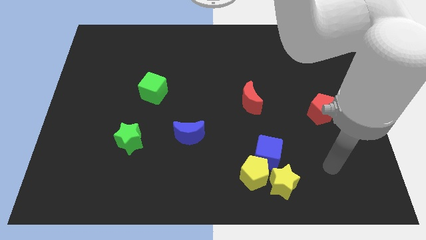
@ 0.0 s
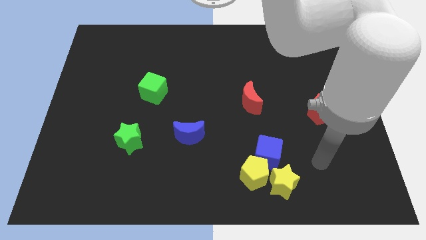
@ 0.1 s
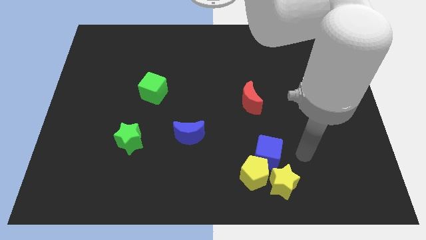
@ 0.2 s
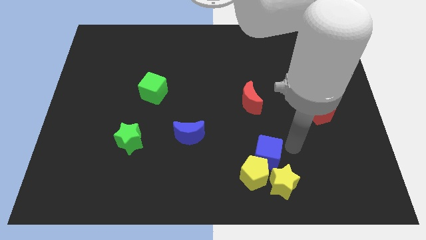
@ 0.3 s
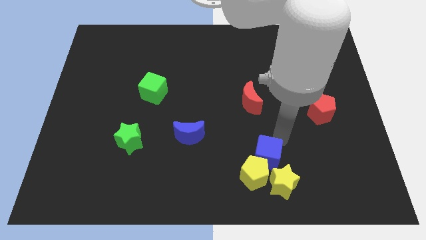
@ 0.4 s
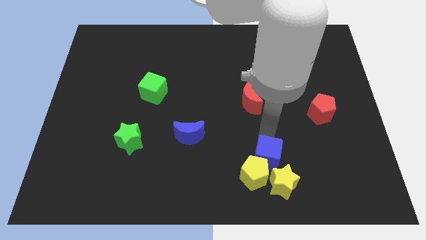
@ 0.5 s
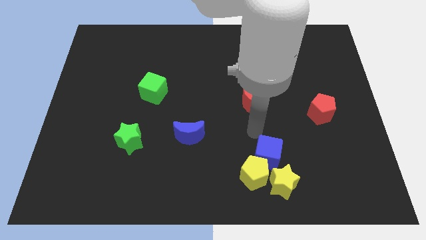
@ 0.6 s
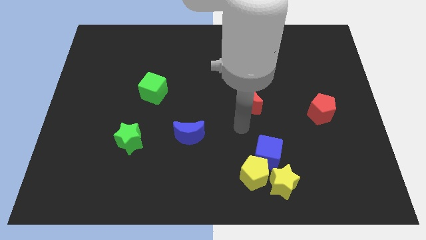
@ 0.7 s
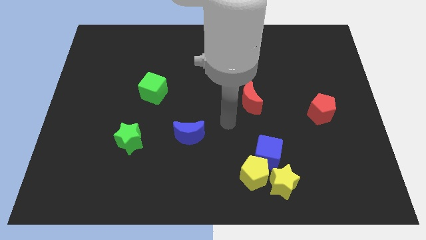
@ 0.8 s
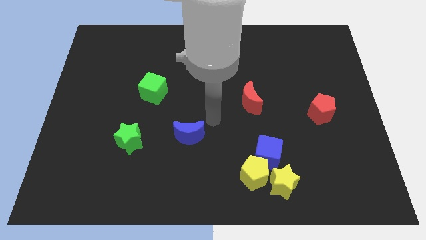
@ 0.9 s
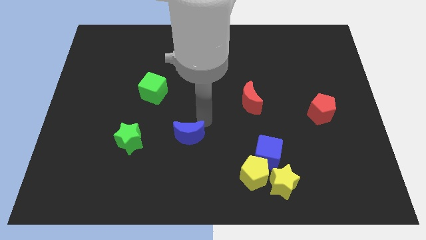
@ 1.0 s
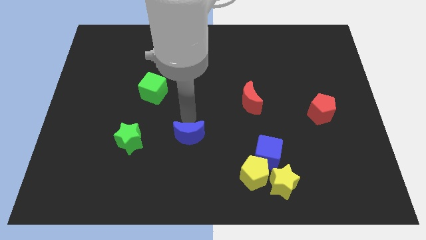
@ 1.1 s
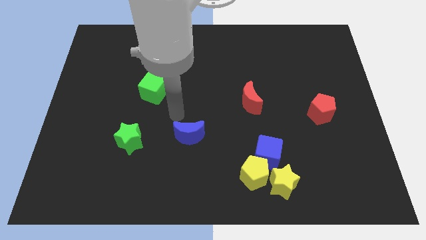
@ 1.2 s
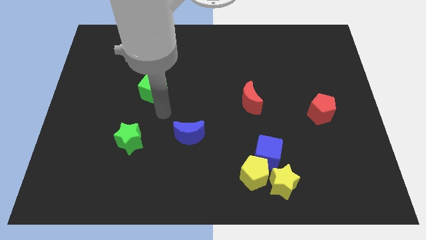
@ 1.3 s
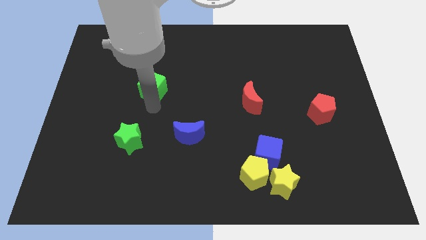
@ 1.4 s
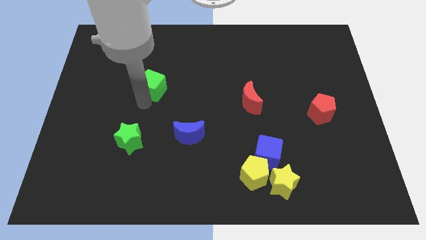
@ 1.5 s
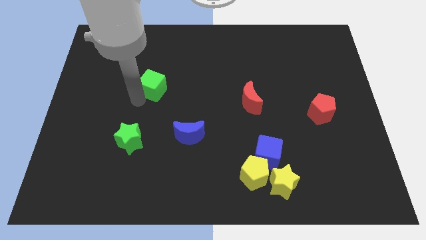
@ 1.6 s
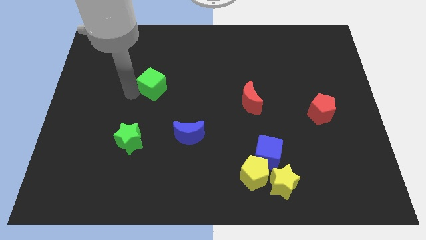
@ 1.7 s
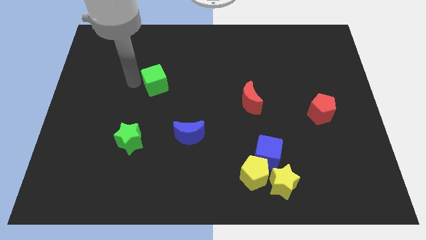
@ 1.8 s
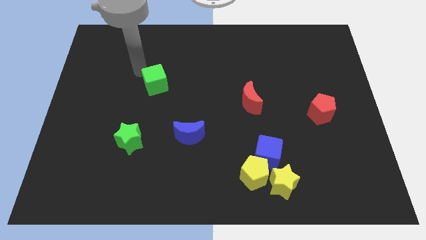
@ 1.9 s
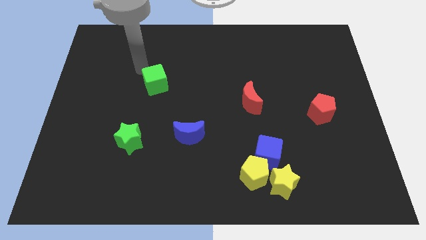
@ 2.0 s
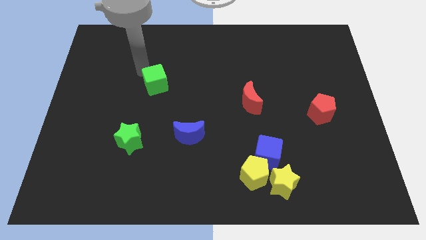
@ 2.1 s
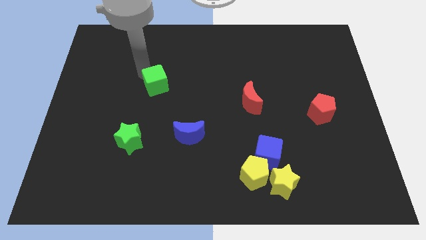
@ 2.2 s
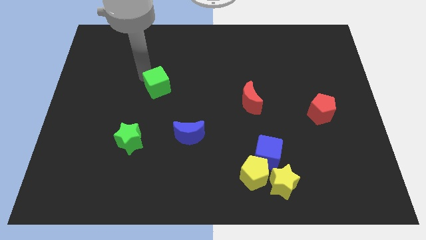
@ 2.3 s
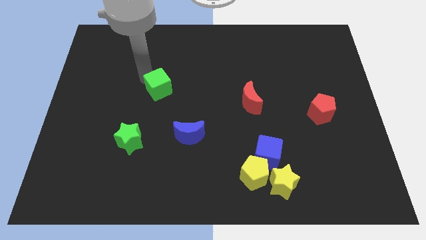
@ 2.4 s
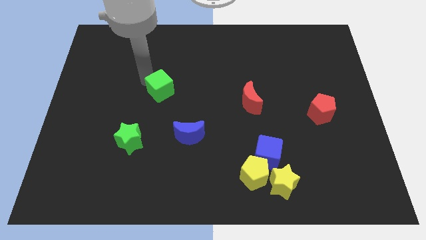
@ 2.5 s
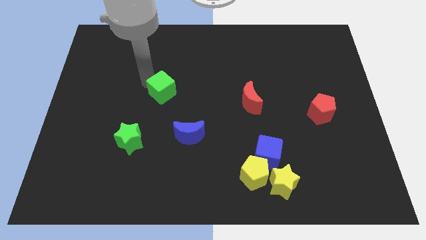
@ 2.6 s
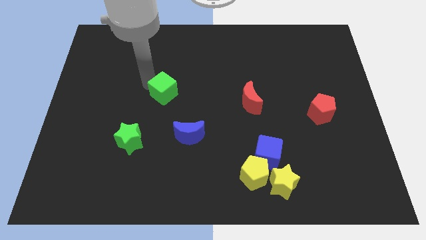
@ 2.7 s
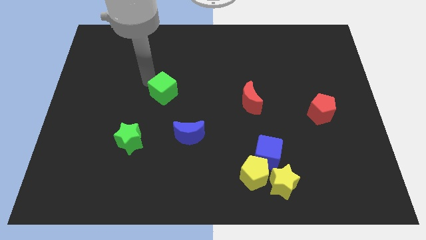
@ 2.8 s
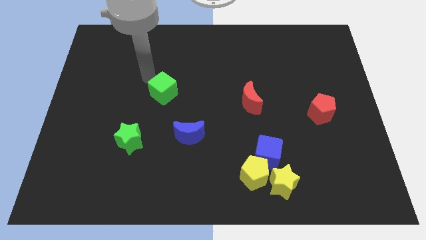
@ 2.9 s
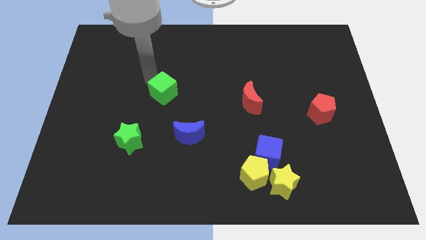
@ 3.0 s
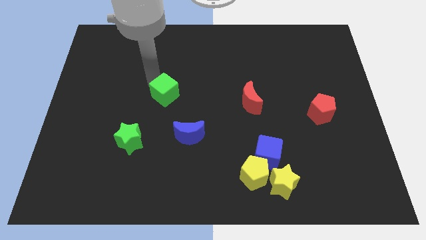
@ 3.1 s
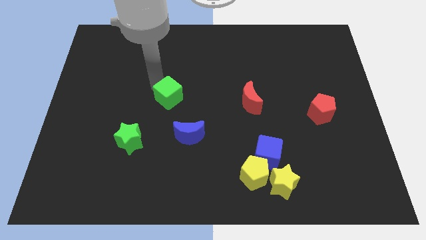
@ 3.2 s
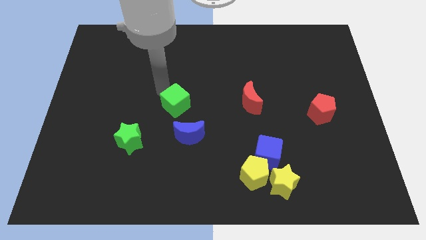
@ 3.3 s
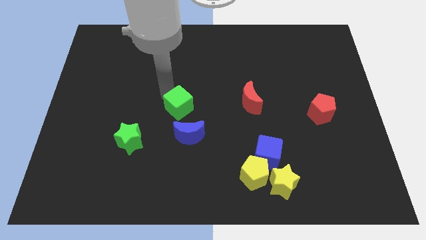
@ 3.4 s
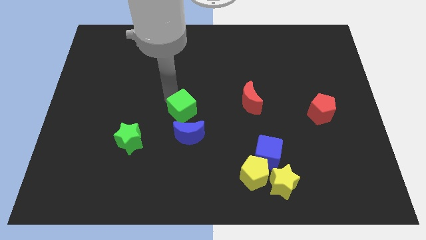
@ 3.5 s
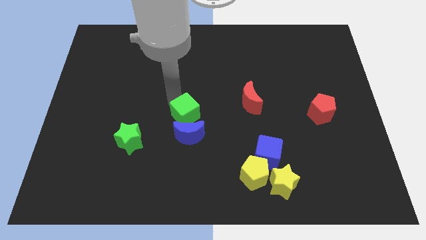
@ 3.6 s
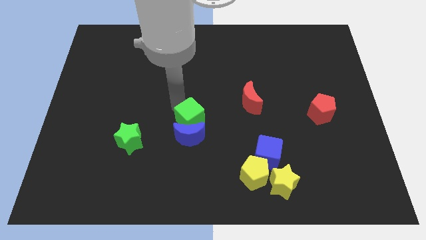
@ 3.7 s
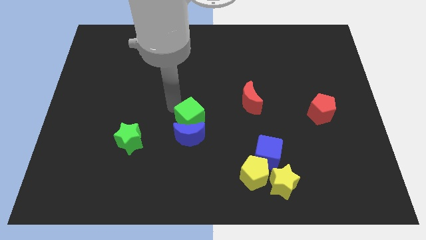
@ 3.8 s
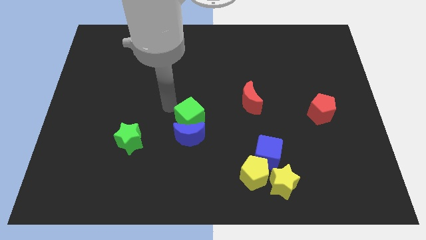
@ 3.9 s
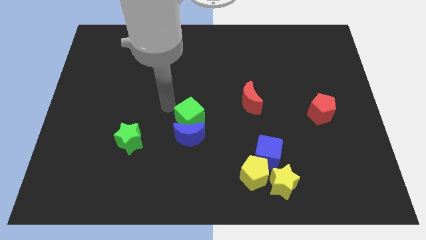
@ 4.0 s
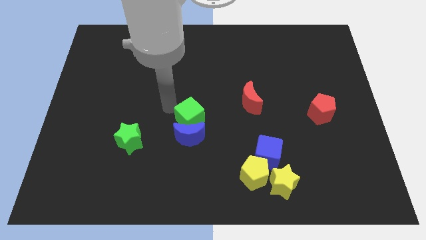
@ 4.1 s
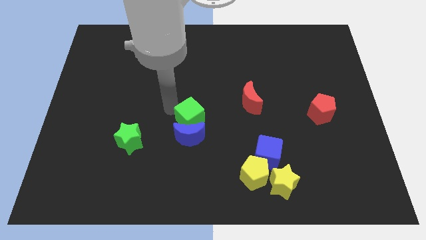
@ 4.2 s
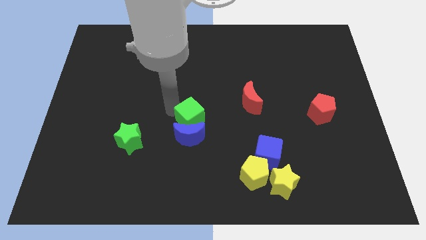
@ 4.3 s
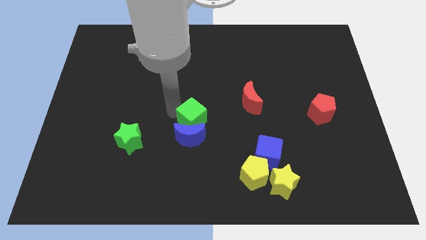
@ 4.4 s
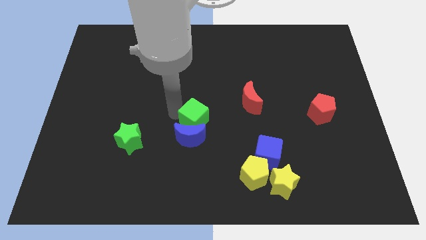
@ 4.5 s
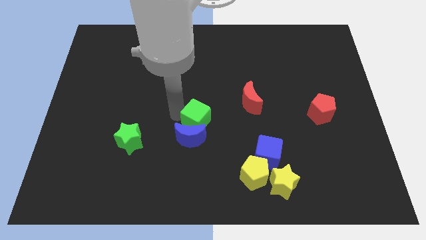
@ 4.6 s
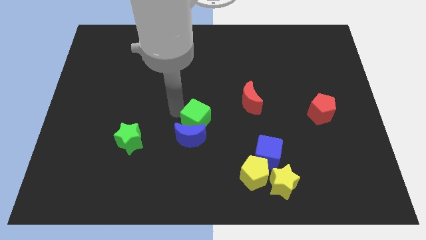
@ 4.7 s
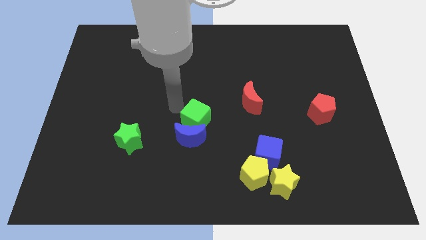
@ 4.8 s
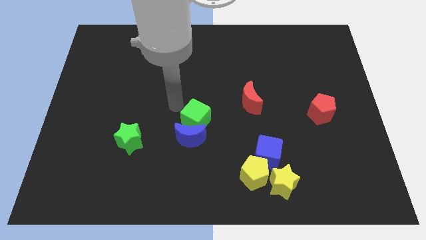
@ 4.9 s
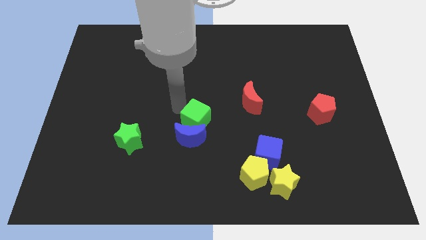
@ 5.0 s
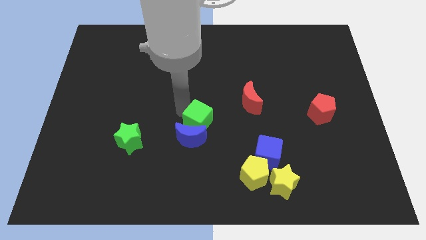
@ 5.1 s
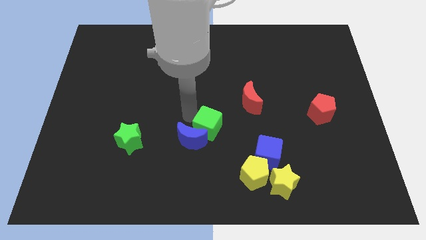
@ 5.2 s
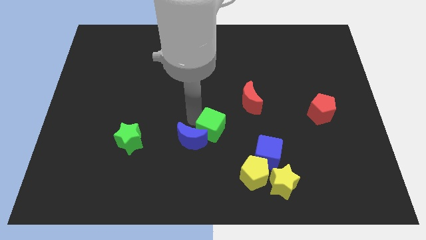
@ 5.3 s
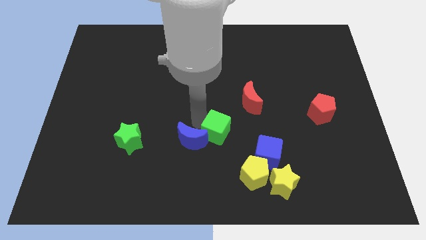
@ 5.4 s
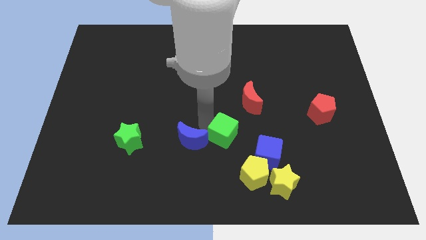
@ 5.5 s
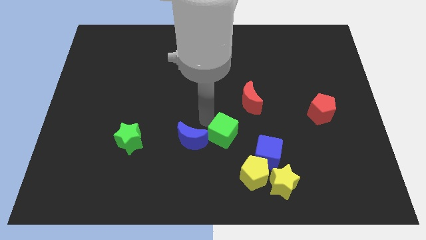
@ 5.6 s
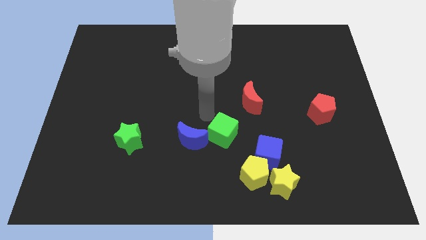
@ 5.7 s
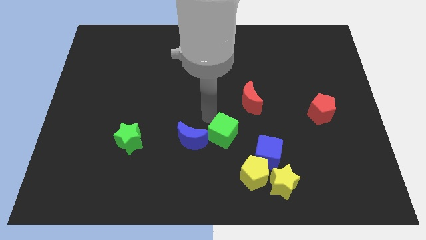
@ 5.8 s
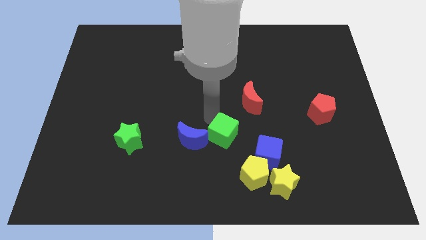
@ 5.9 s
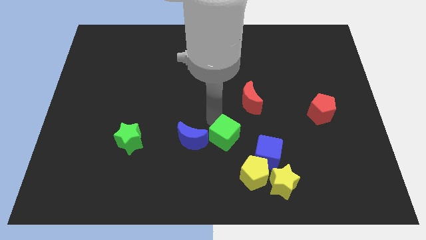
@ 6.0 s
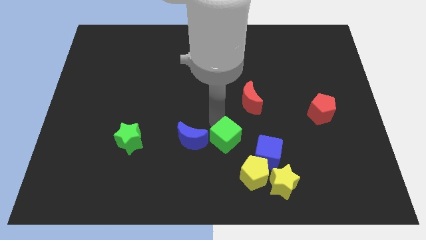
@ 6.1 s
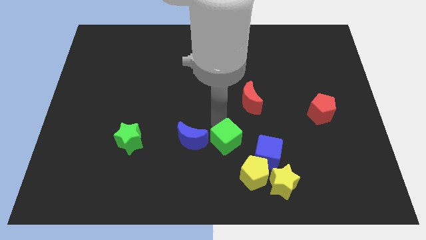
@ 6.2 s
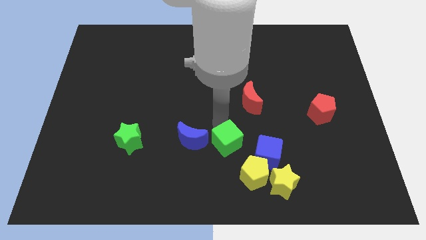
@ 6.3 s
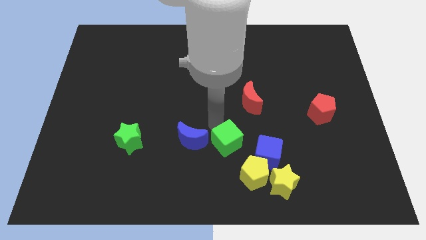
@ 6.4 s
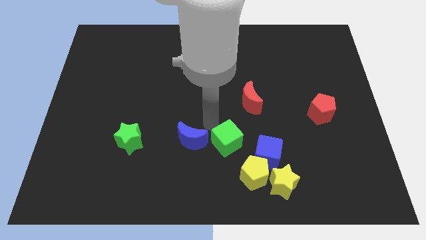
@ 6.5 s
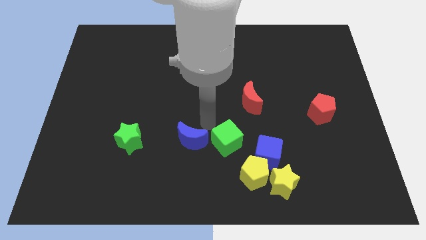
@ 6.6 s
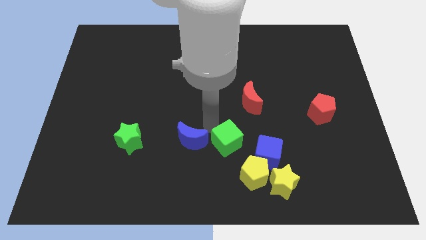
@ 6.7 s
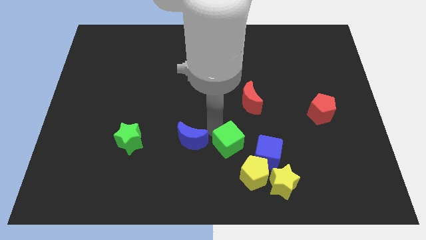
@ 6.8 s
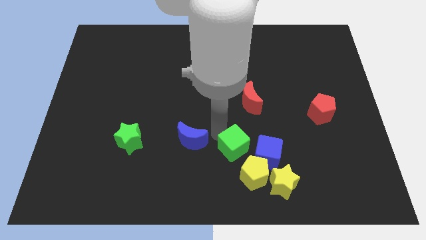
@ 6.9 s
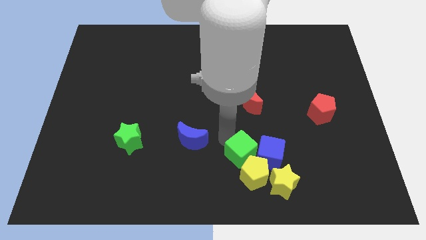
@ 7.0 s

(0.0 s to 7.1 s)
put the green cube close to the yellow pentagon
